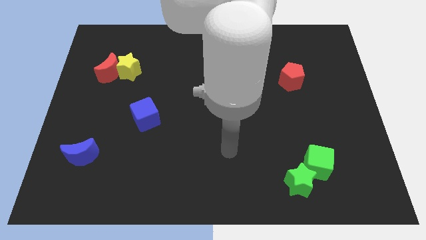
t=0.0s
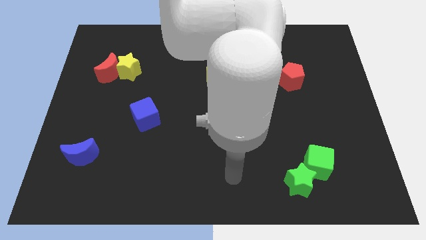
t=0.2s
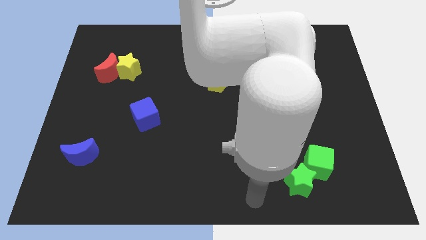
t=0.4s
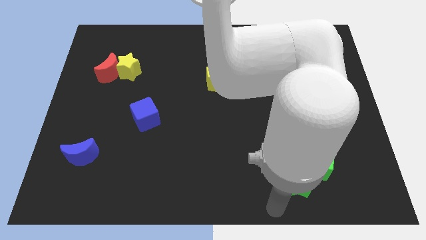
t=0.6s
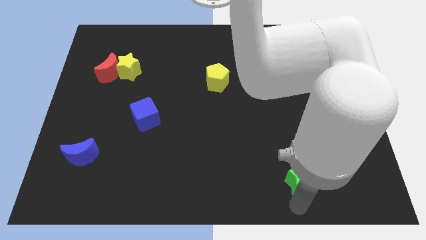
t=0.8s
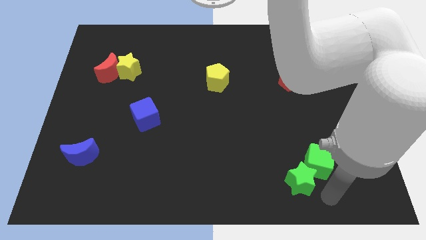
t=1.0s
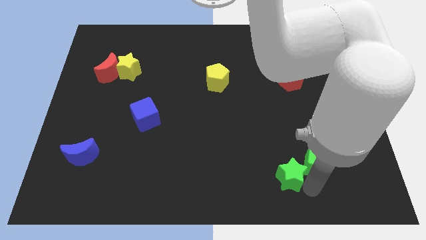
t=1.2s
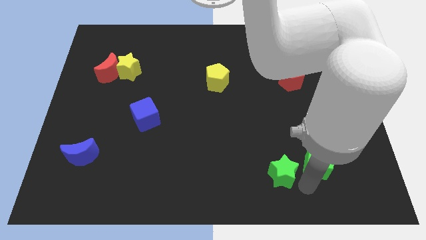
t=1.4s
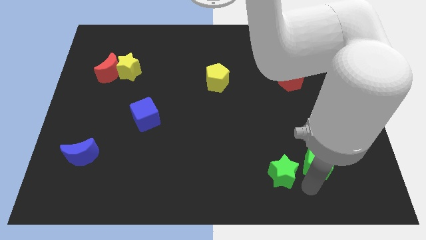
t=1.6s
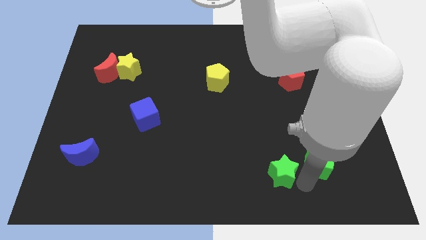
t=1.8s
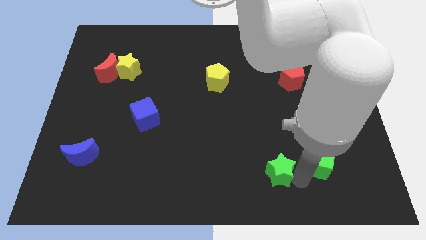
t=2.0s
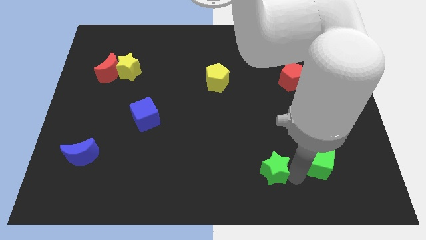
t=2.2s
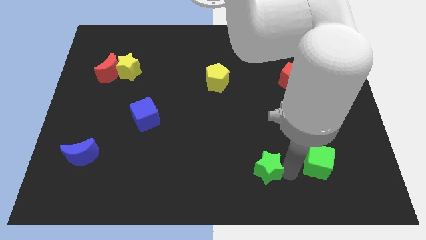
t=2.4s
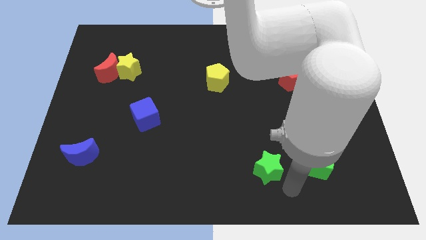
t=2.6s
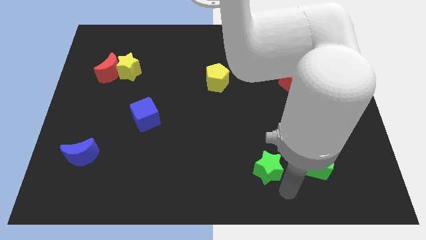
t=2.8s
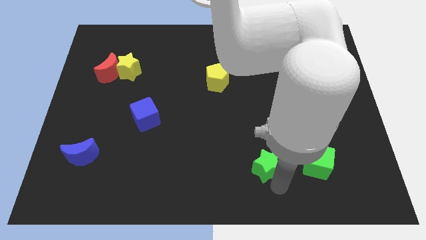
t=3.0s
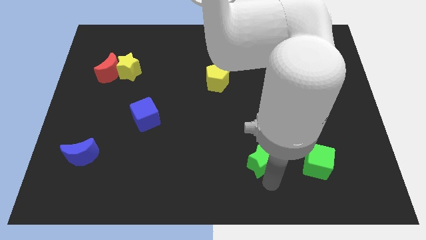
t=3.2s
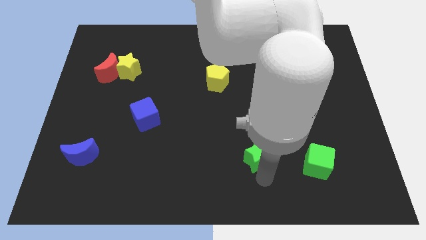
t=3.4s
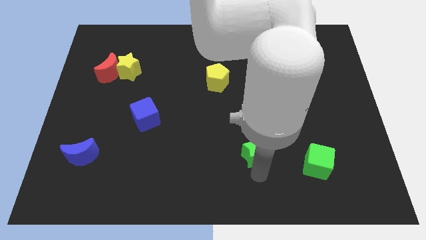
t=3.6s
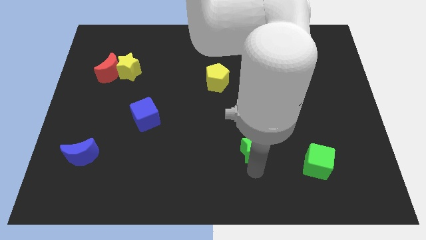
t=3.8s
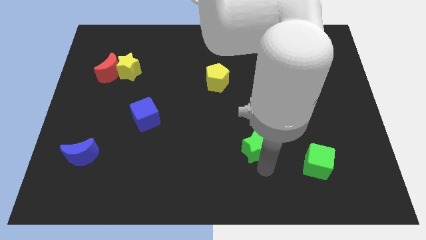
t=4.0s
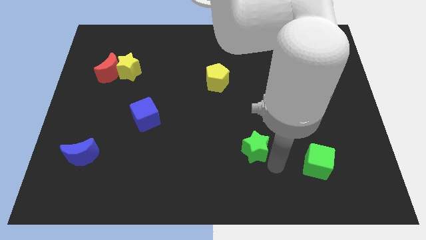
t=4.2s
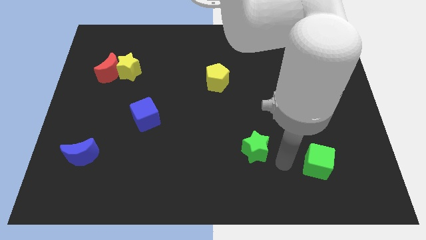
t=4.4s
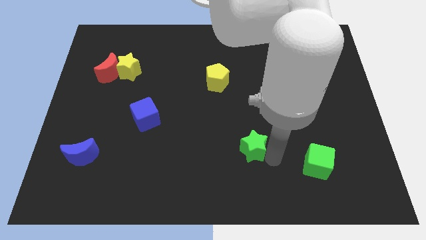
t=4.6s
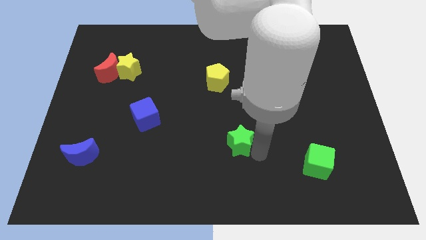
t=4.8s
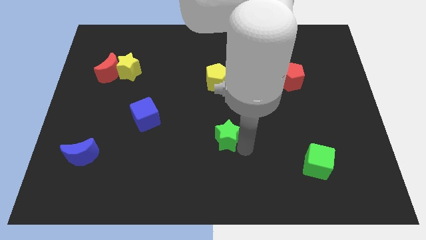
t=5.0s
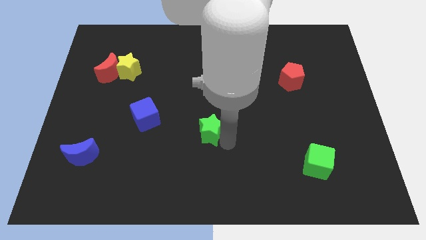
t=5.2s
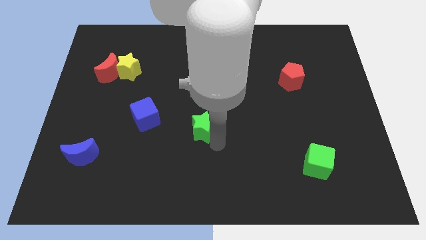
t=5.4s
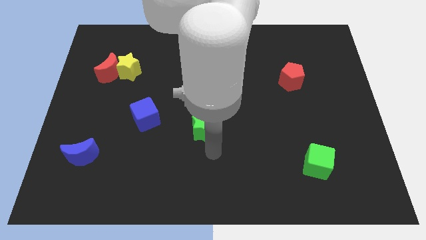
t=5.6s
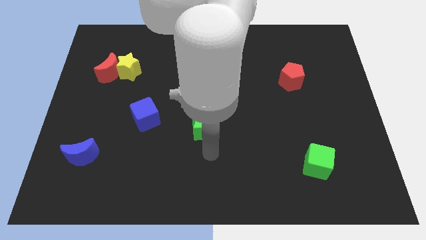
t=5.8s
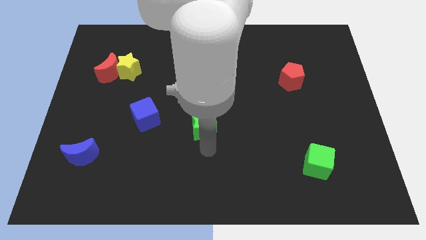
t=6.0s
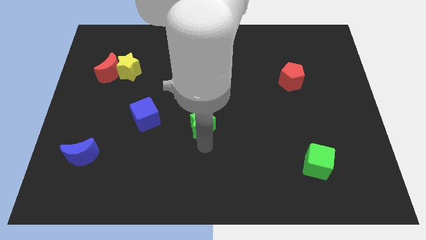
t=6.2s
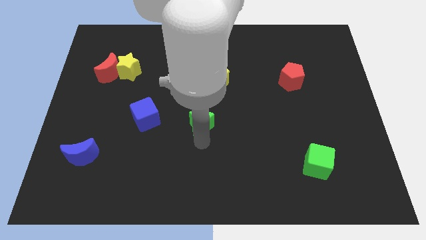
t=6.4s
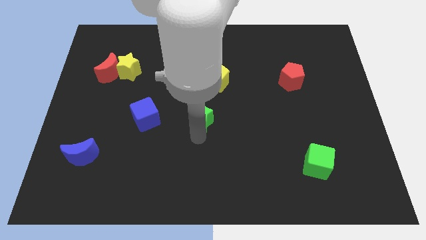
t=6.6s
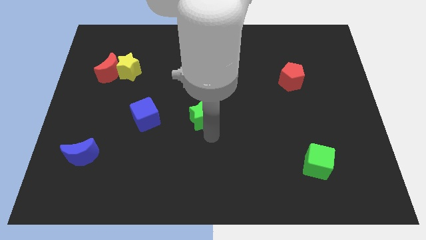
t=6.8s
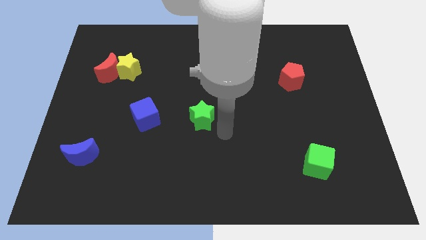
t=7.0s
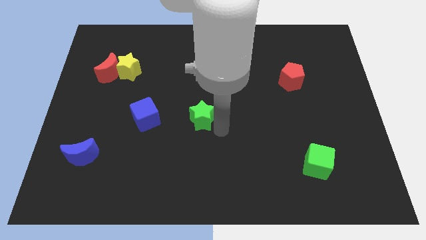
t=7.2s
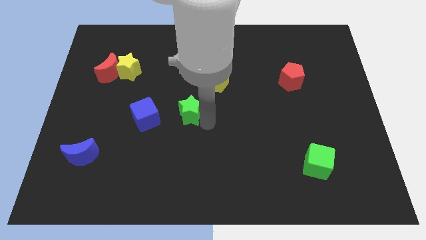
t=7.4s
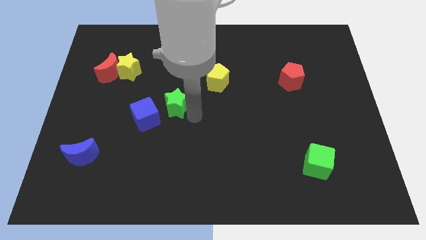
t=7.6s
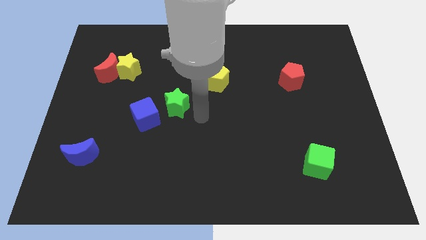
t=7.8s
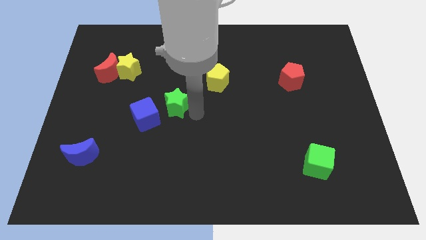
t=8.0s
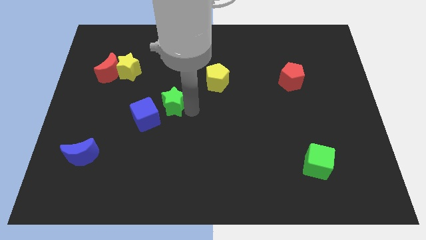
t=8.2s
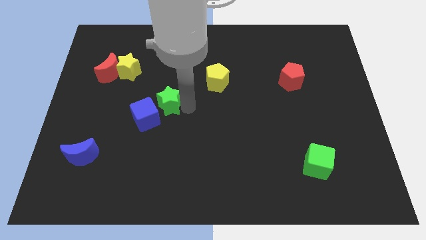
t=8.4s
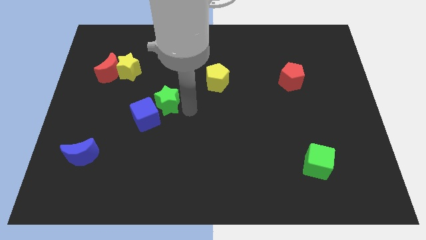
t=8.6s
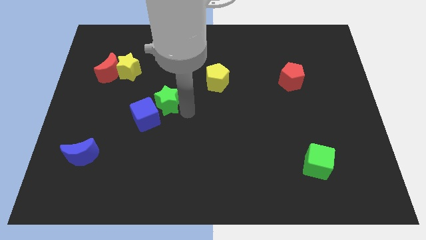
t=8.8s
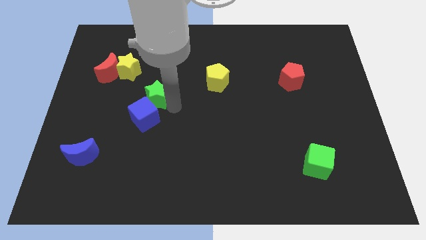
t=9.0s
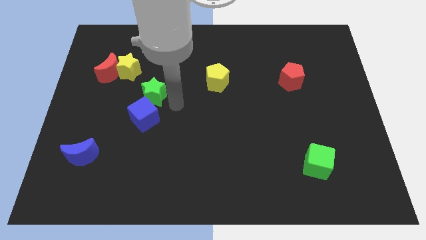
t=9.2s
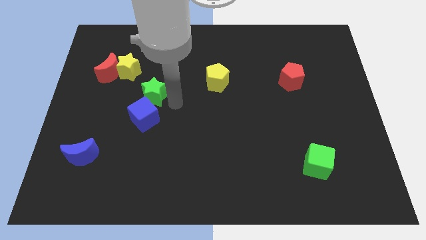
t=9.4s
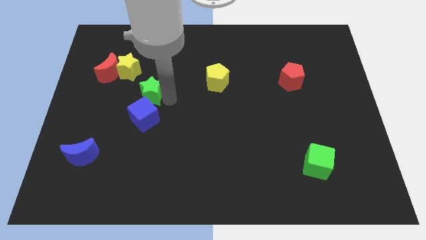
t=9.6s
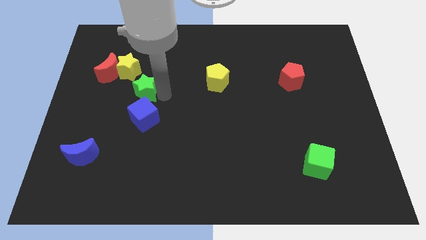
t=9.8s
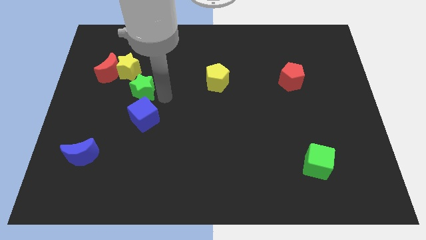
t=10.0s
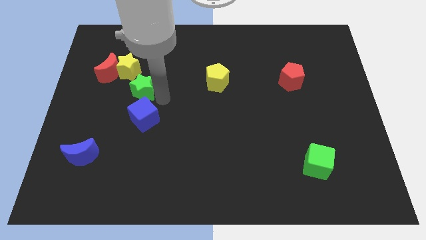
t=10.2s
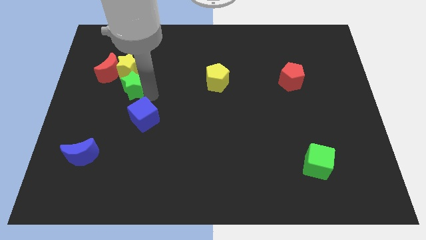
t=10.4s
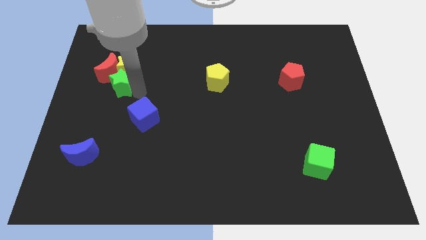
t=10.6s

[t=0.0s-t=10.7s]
move the green star to the red moon

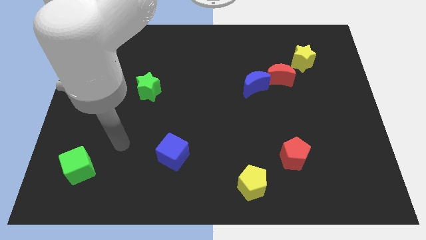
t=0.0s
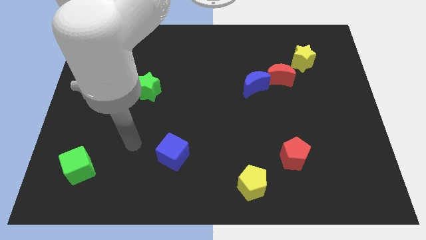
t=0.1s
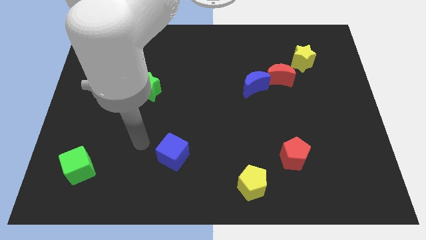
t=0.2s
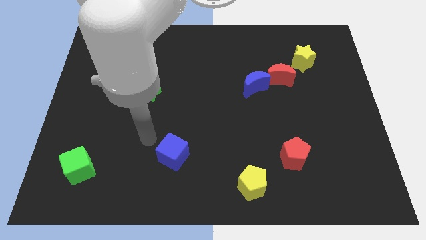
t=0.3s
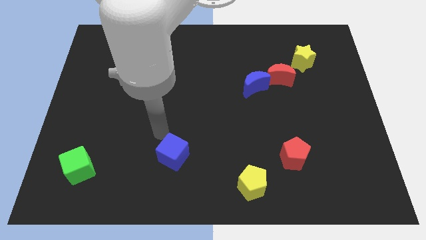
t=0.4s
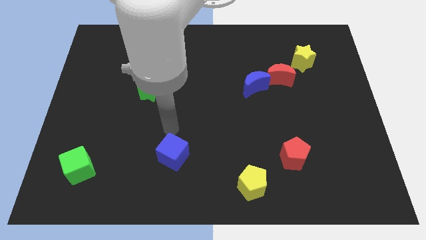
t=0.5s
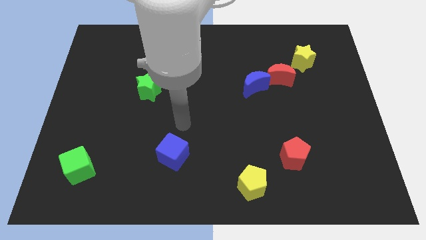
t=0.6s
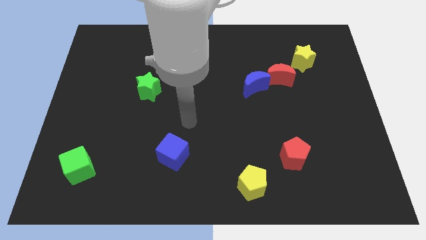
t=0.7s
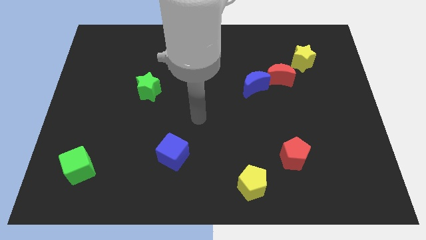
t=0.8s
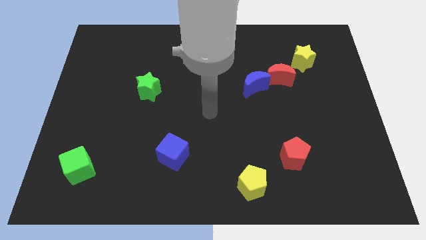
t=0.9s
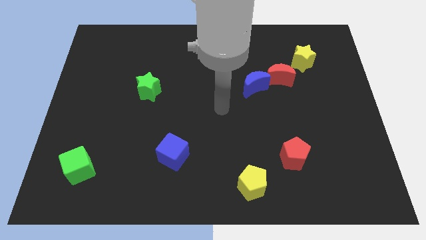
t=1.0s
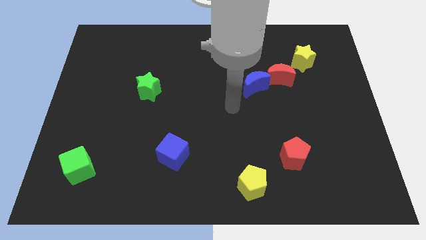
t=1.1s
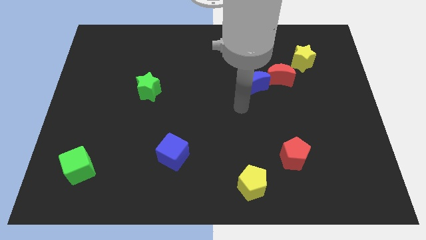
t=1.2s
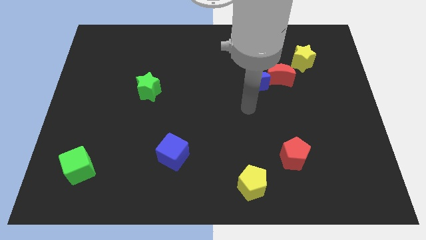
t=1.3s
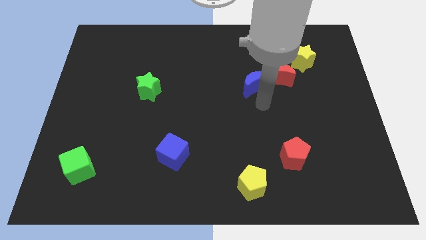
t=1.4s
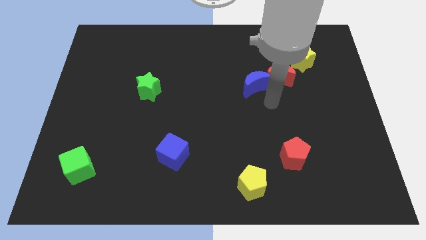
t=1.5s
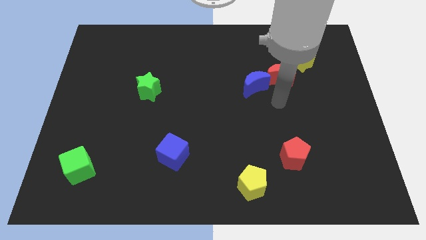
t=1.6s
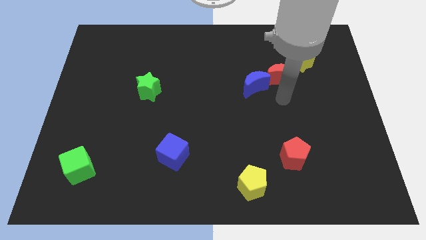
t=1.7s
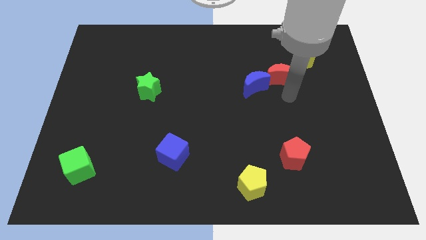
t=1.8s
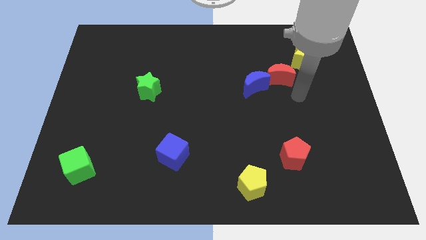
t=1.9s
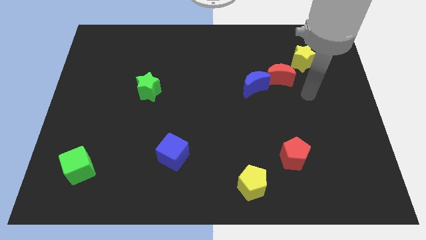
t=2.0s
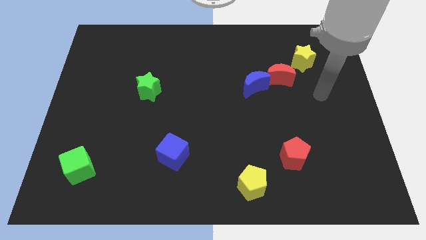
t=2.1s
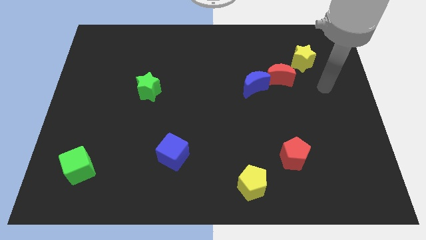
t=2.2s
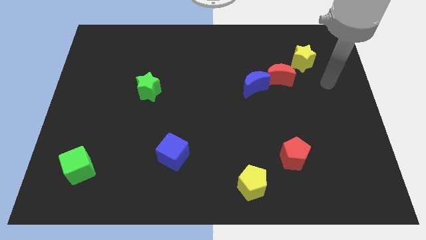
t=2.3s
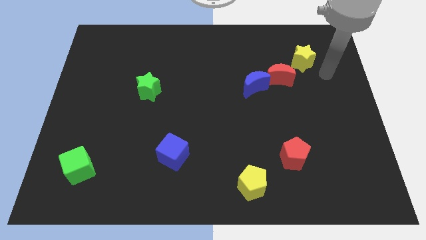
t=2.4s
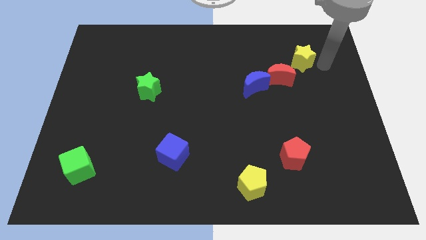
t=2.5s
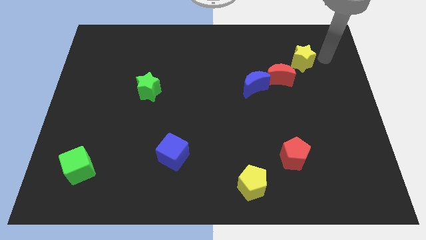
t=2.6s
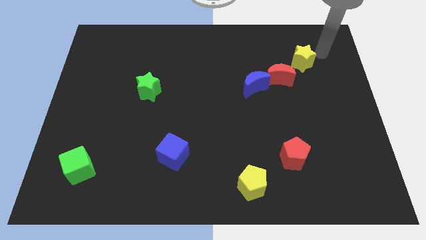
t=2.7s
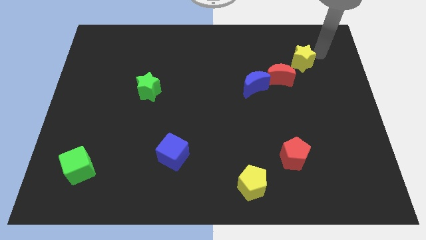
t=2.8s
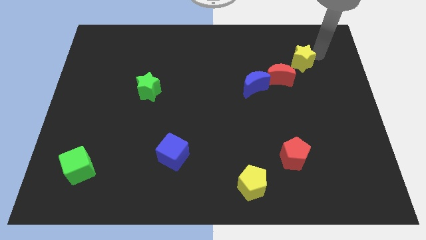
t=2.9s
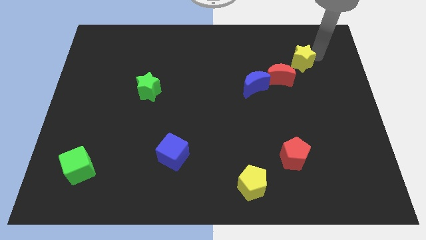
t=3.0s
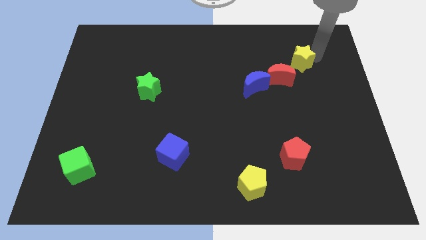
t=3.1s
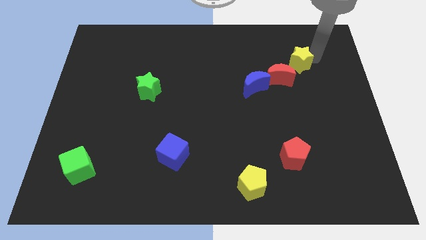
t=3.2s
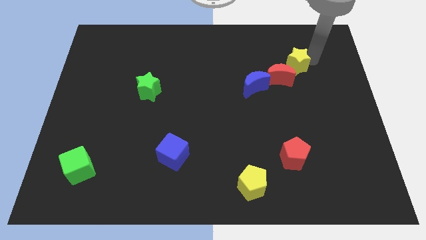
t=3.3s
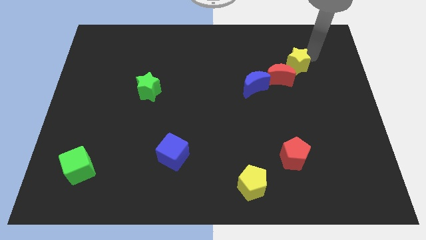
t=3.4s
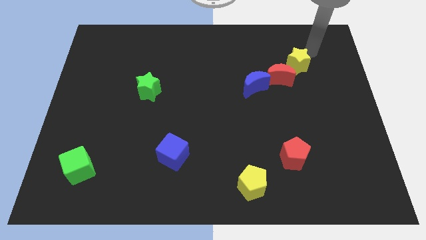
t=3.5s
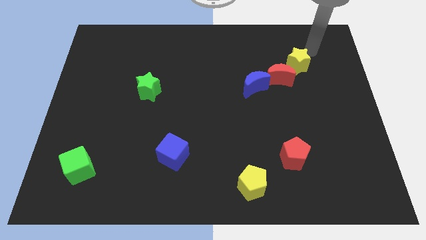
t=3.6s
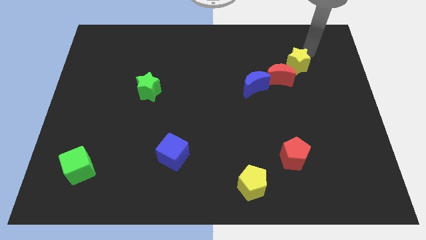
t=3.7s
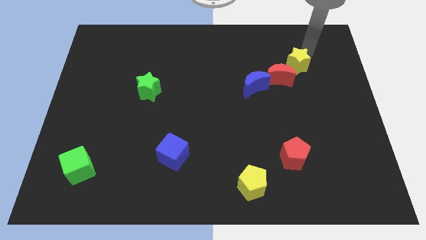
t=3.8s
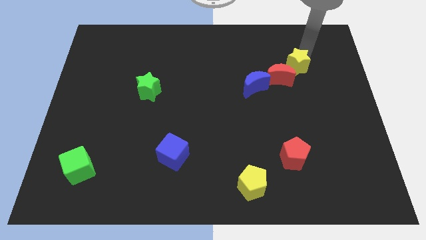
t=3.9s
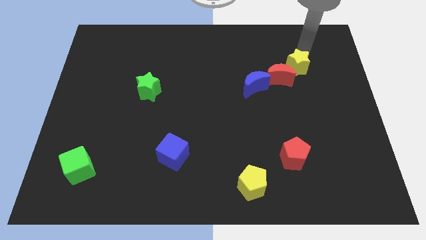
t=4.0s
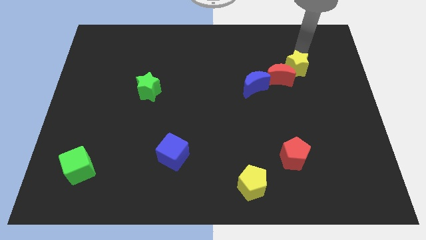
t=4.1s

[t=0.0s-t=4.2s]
push the yellow star towards the red moon
